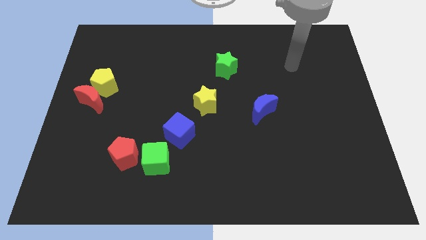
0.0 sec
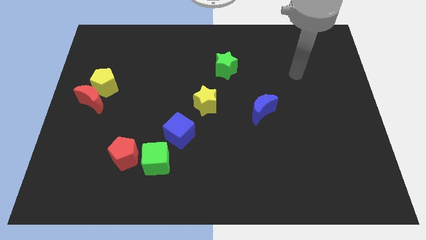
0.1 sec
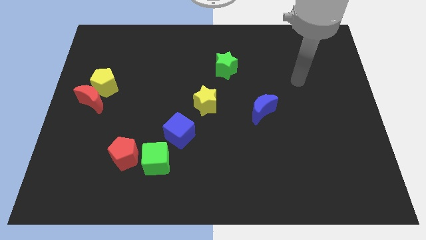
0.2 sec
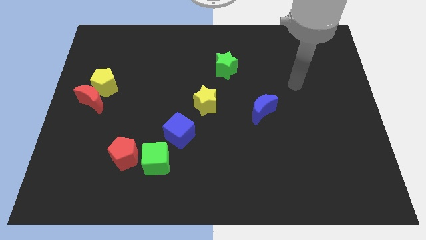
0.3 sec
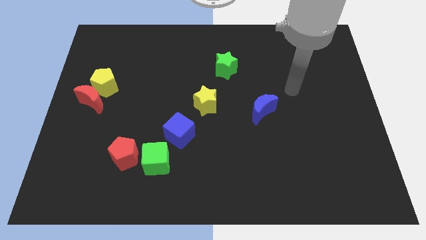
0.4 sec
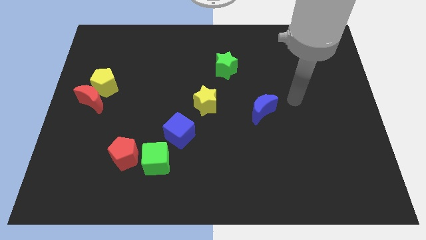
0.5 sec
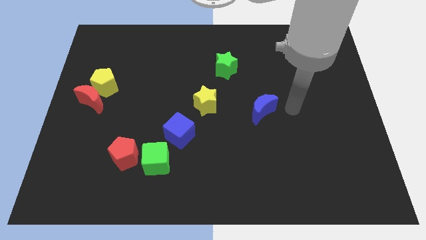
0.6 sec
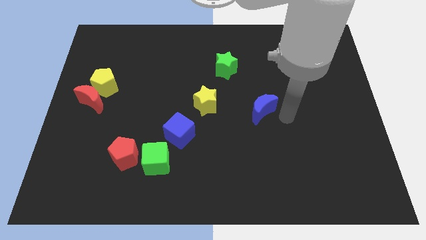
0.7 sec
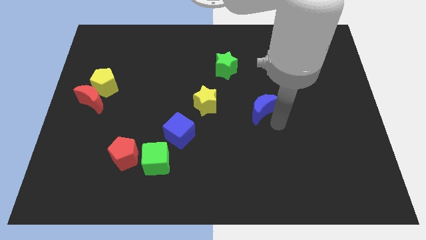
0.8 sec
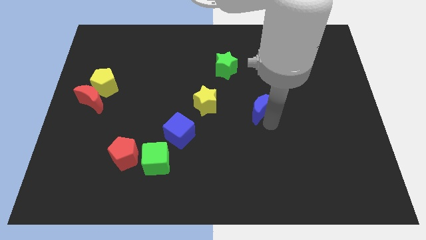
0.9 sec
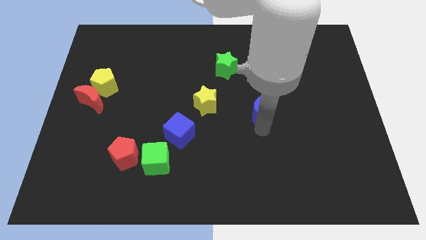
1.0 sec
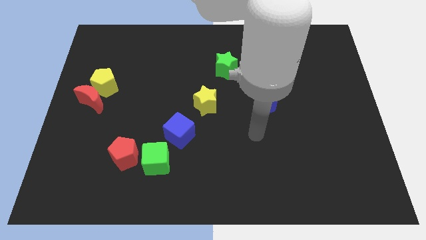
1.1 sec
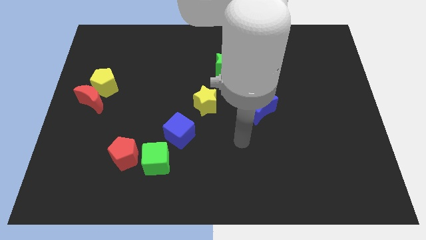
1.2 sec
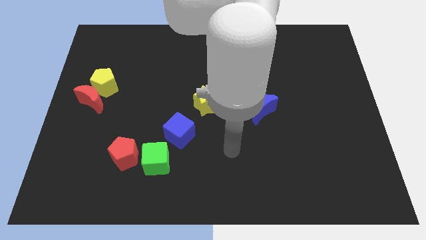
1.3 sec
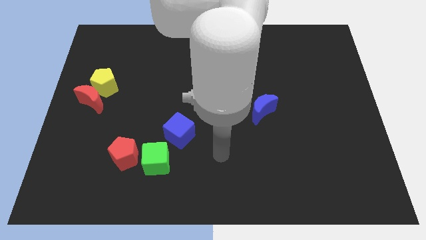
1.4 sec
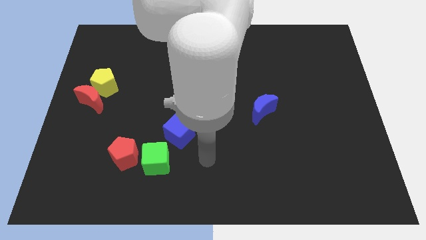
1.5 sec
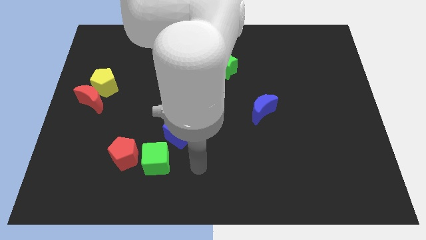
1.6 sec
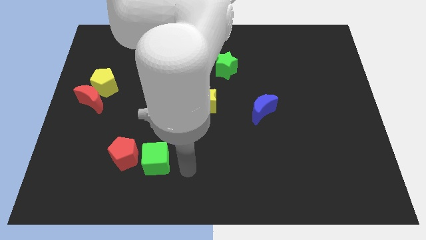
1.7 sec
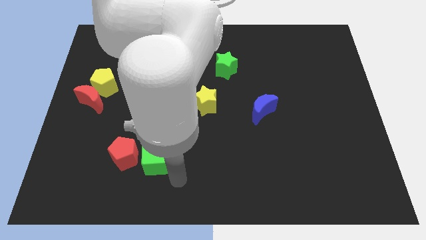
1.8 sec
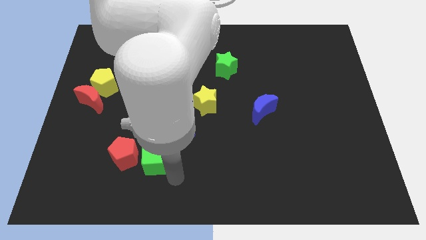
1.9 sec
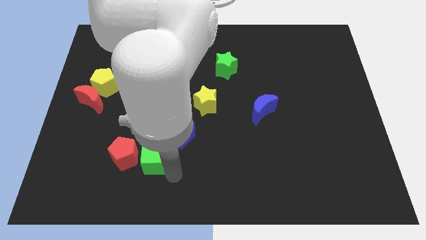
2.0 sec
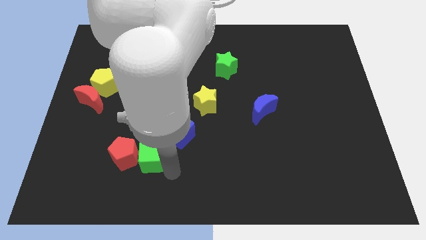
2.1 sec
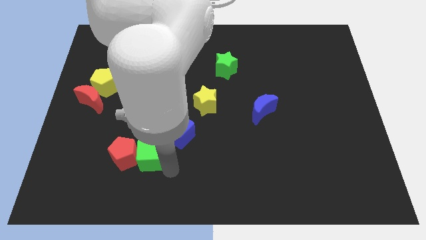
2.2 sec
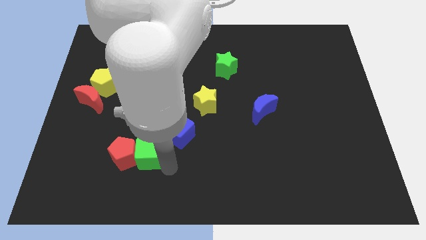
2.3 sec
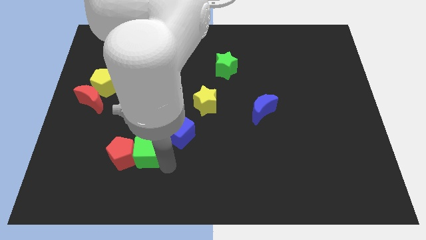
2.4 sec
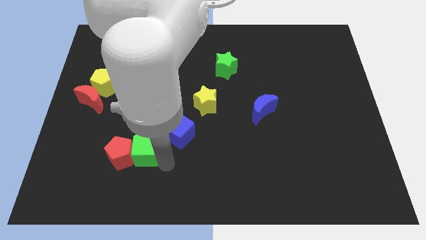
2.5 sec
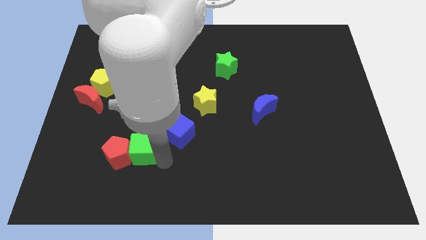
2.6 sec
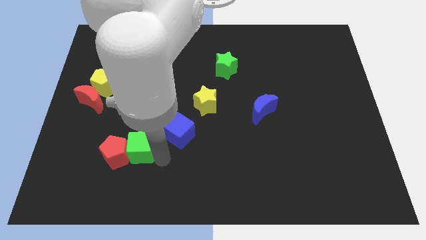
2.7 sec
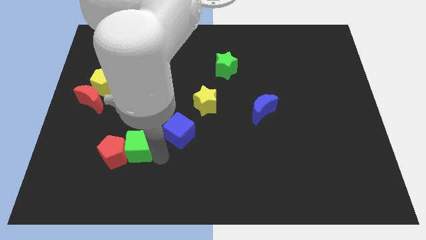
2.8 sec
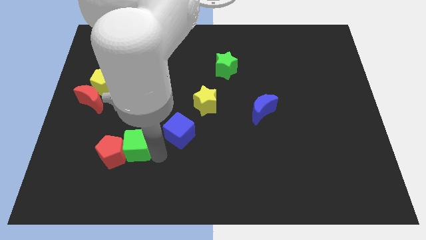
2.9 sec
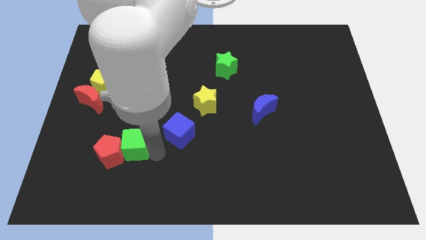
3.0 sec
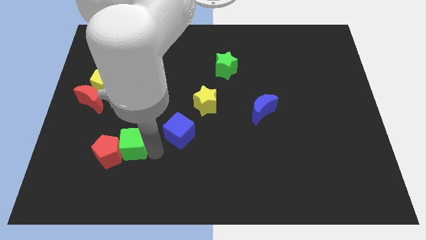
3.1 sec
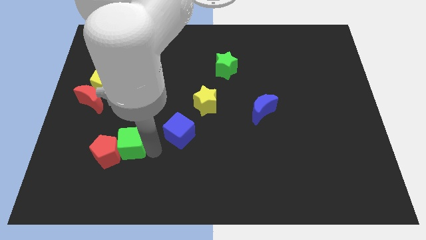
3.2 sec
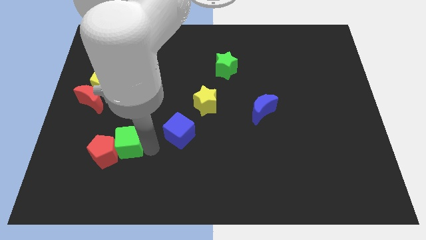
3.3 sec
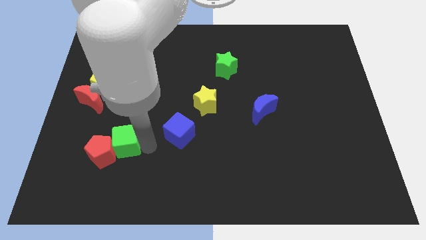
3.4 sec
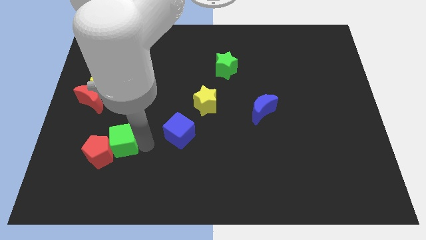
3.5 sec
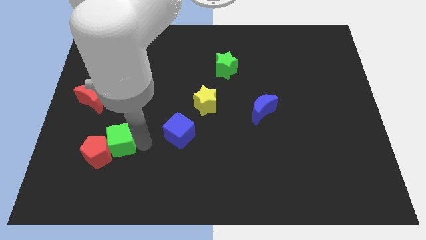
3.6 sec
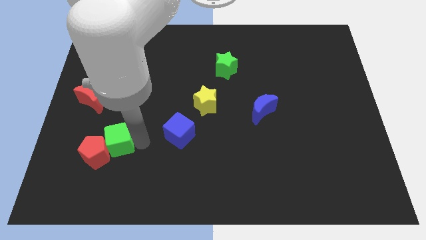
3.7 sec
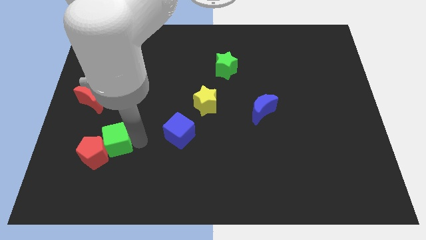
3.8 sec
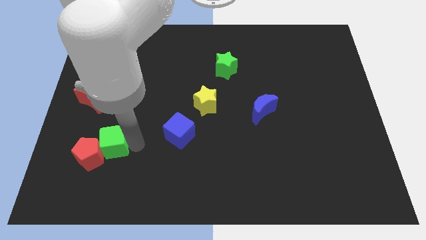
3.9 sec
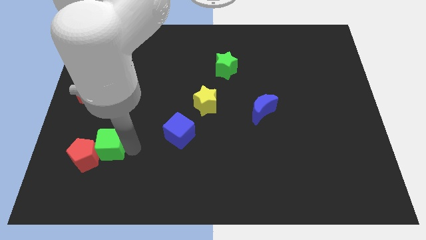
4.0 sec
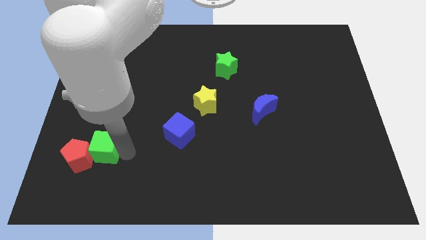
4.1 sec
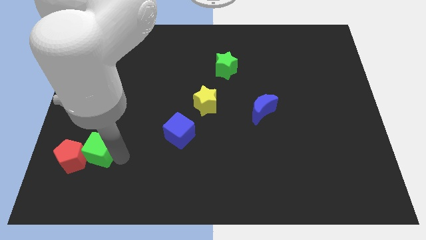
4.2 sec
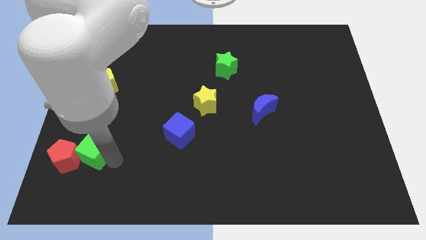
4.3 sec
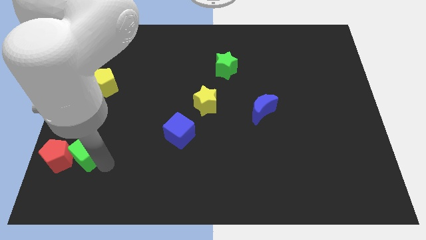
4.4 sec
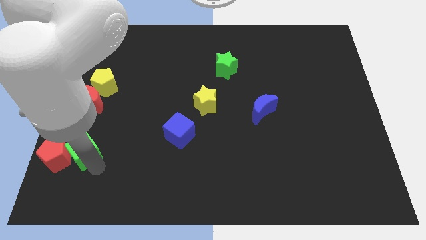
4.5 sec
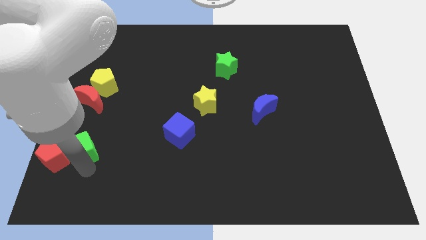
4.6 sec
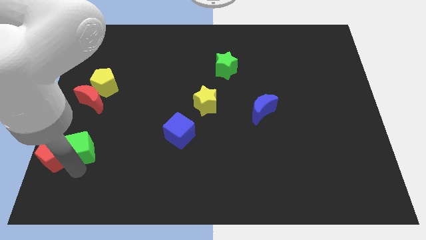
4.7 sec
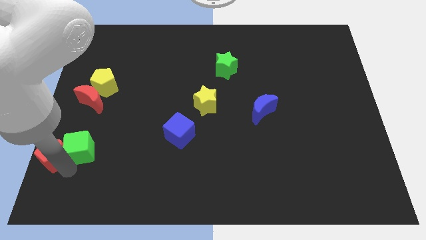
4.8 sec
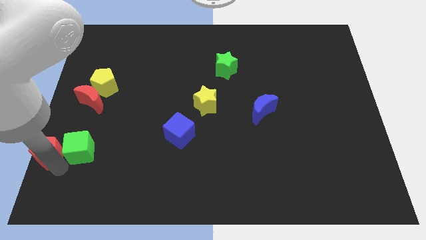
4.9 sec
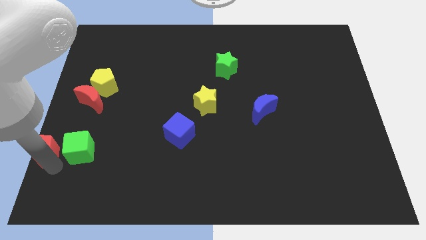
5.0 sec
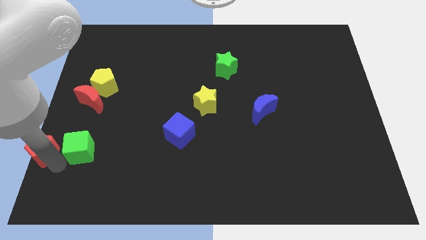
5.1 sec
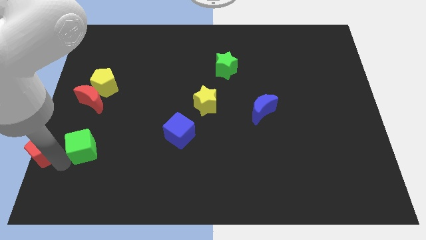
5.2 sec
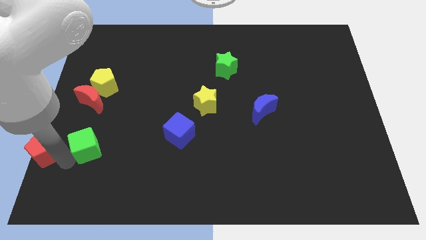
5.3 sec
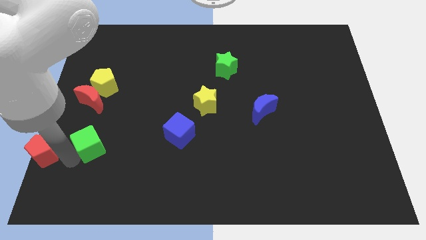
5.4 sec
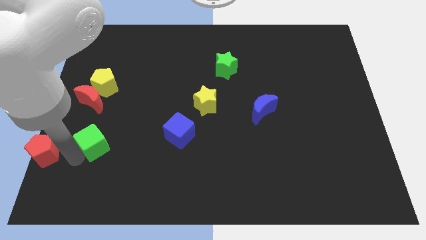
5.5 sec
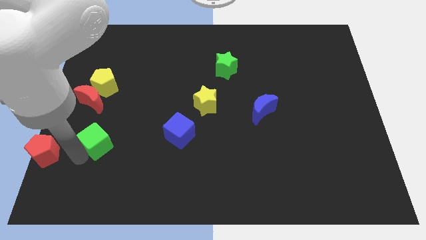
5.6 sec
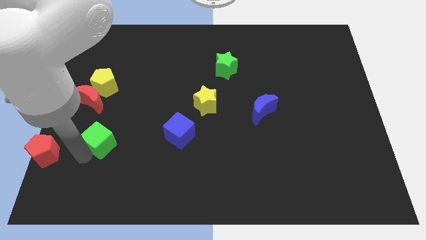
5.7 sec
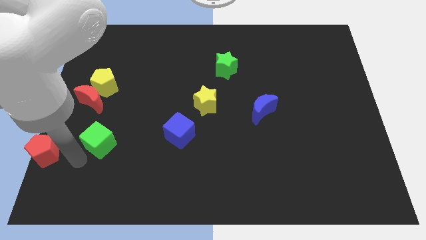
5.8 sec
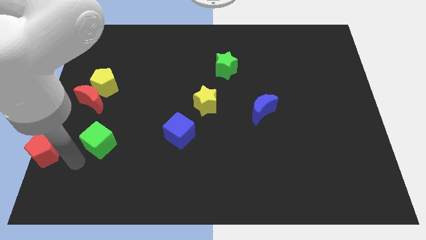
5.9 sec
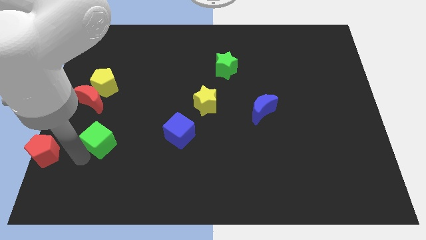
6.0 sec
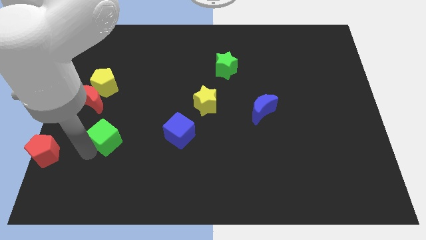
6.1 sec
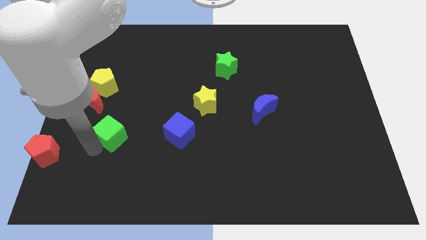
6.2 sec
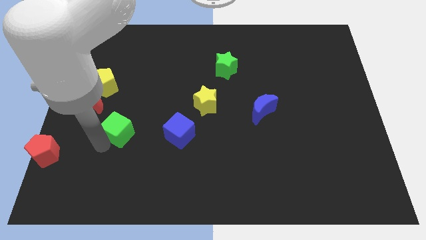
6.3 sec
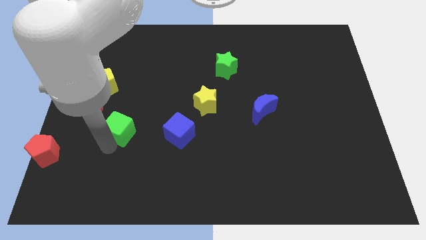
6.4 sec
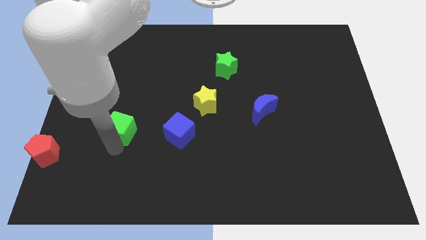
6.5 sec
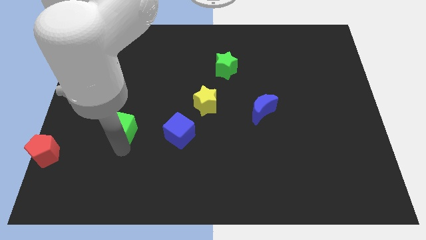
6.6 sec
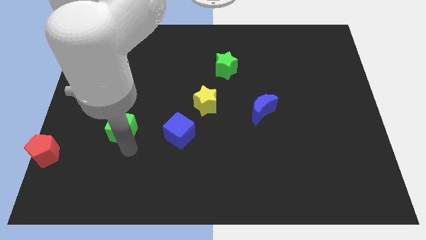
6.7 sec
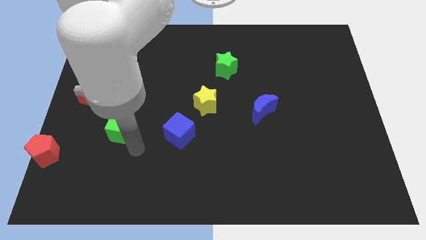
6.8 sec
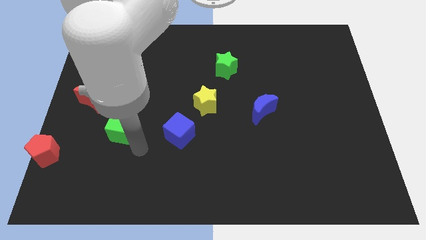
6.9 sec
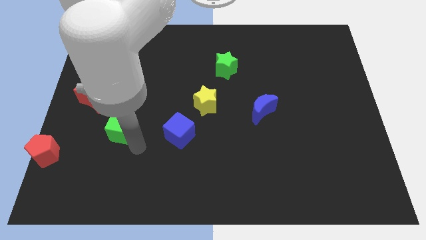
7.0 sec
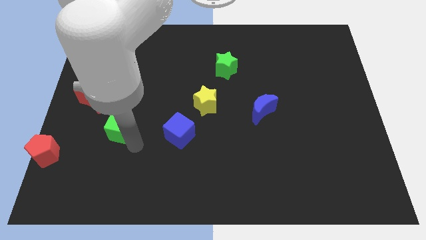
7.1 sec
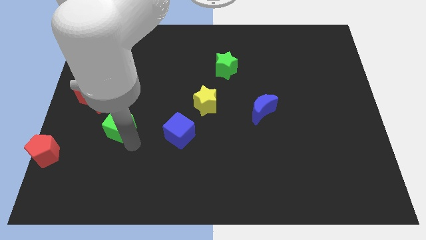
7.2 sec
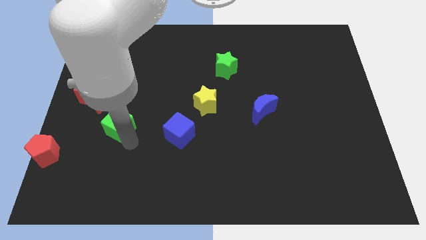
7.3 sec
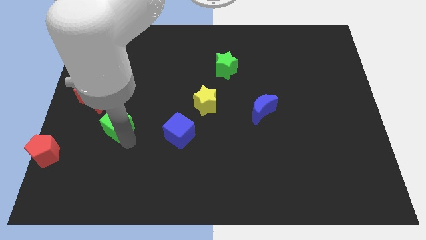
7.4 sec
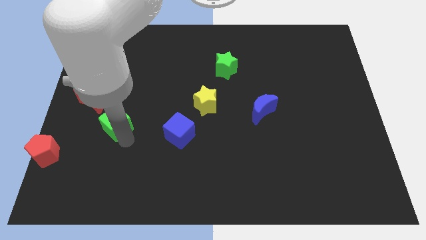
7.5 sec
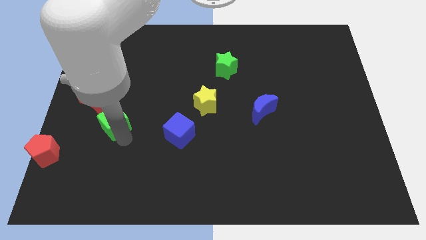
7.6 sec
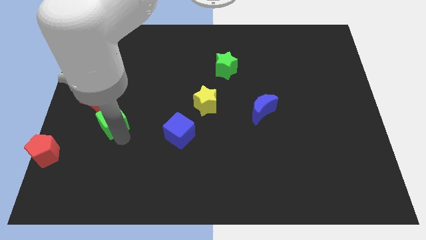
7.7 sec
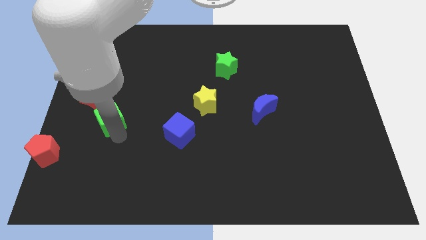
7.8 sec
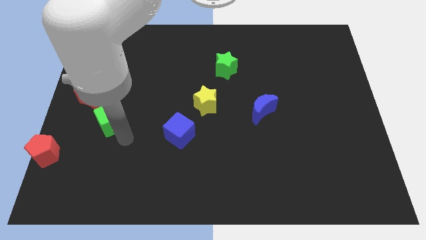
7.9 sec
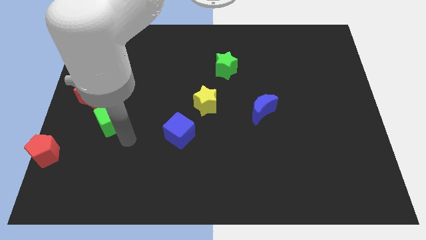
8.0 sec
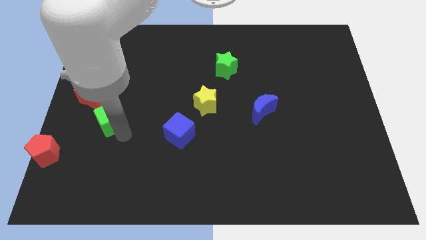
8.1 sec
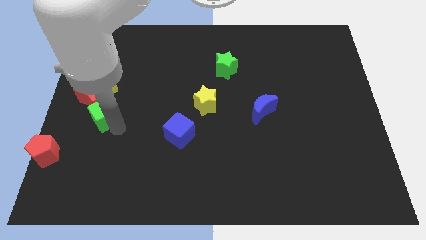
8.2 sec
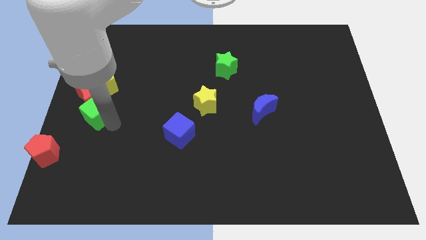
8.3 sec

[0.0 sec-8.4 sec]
slide the green cube close to the red moon
